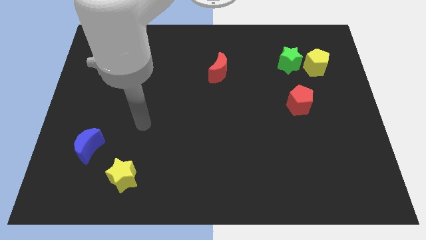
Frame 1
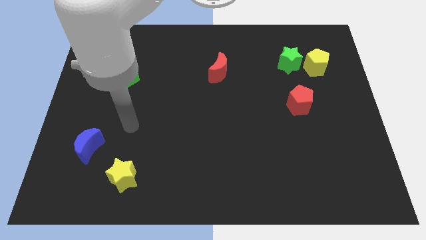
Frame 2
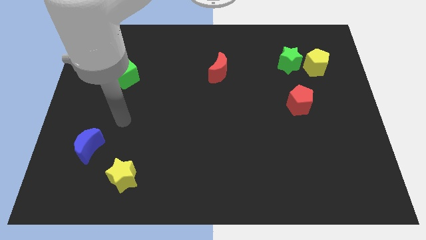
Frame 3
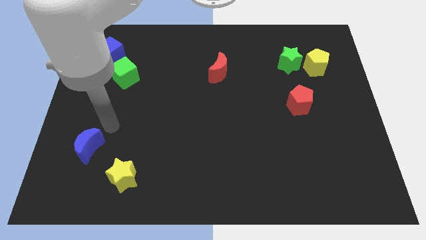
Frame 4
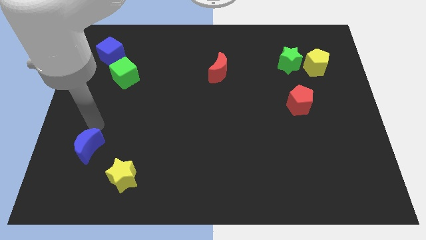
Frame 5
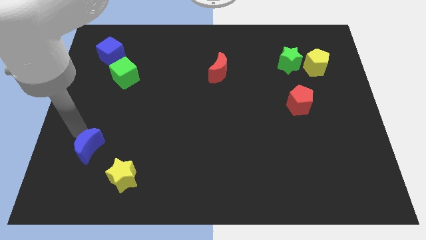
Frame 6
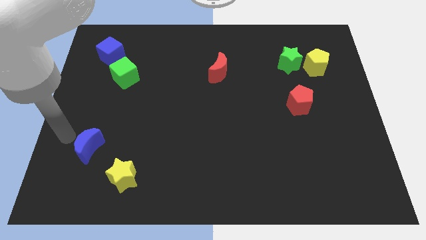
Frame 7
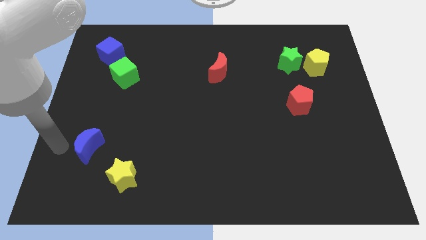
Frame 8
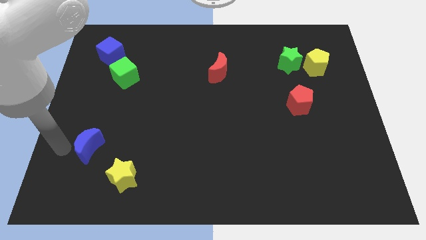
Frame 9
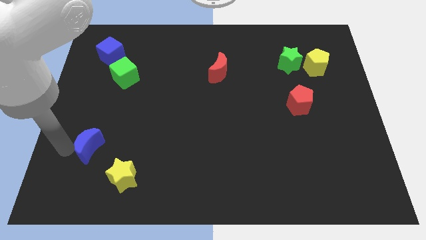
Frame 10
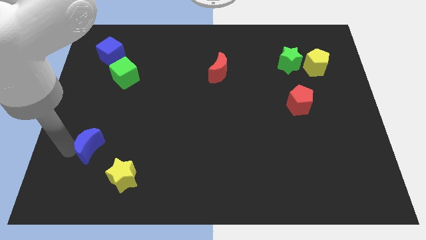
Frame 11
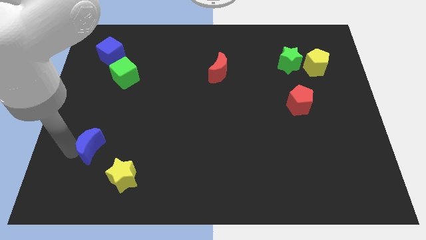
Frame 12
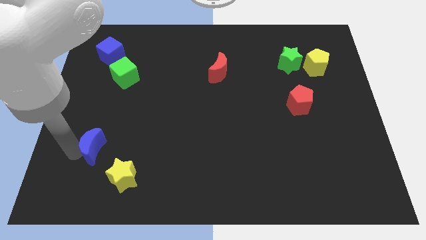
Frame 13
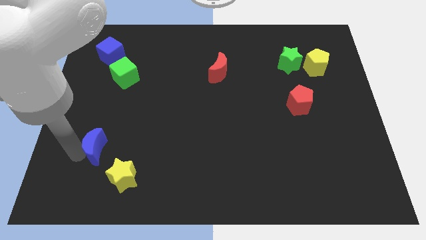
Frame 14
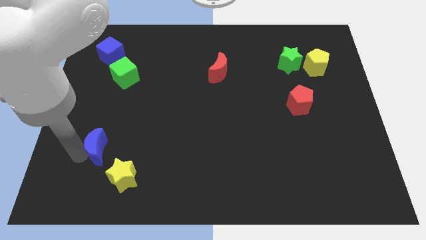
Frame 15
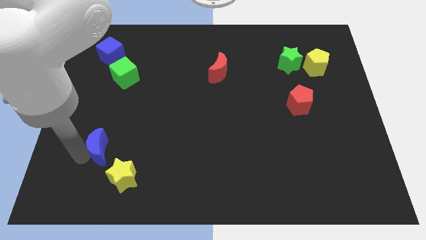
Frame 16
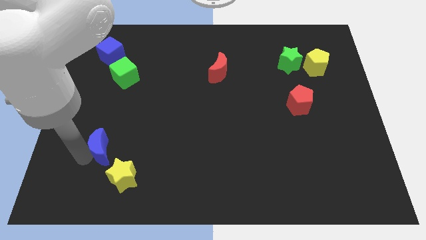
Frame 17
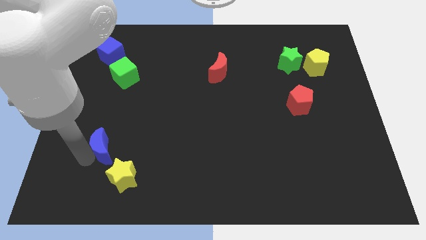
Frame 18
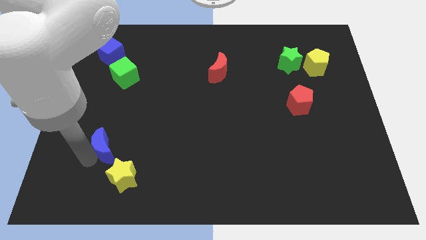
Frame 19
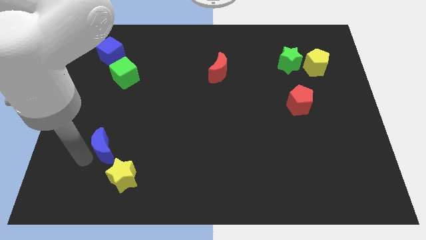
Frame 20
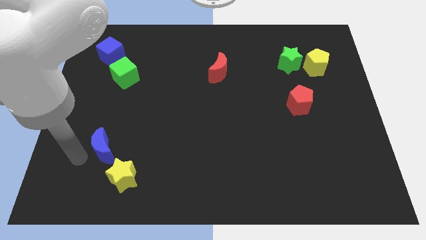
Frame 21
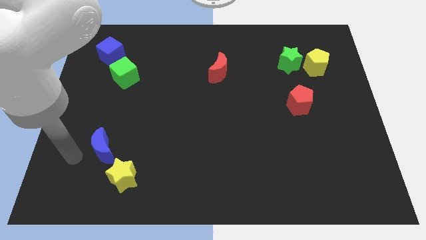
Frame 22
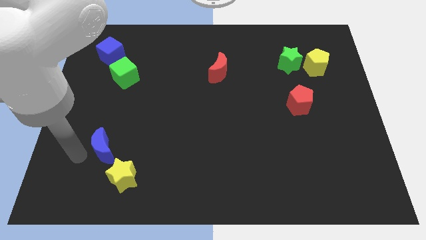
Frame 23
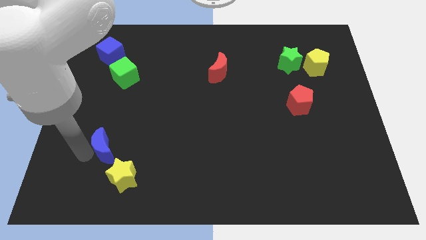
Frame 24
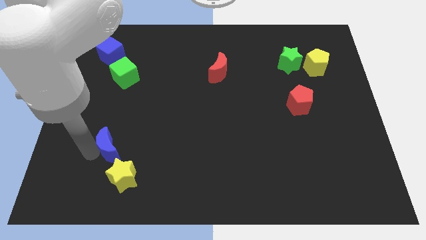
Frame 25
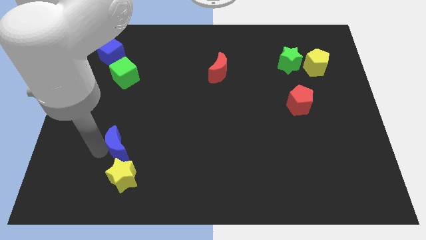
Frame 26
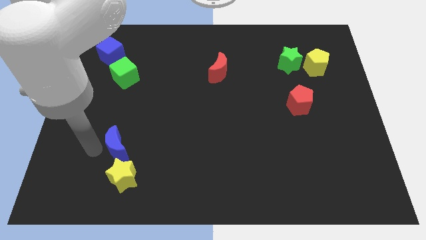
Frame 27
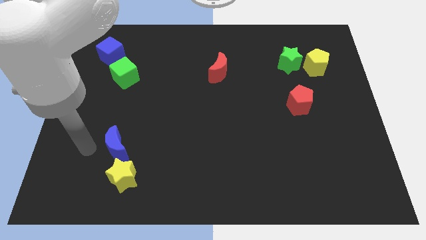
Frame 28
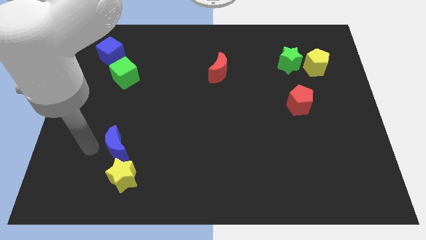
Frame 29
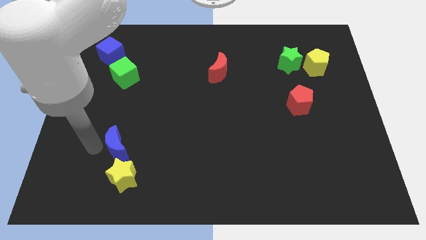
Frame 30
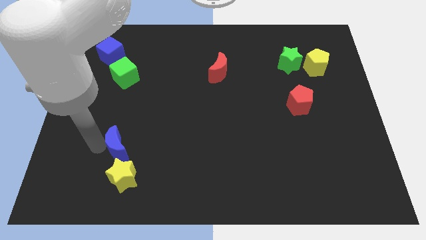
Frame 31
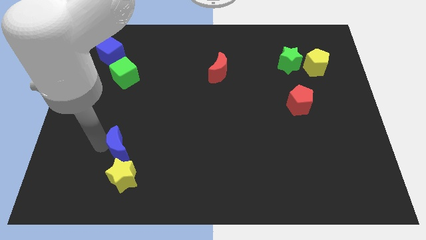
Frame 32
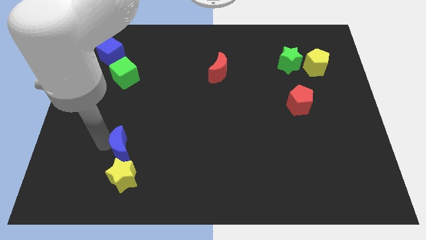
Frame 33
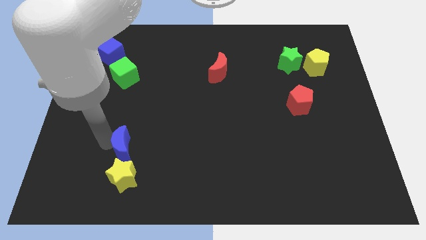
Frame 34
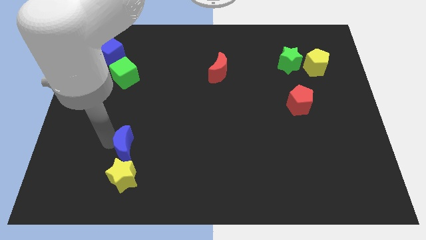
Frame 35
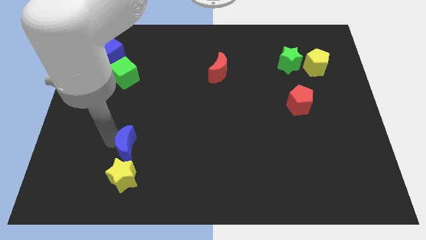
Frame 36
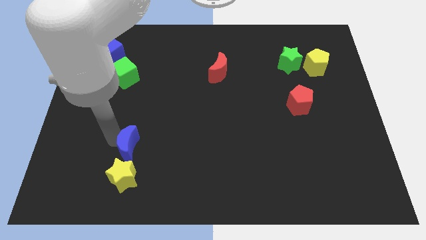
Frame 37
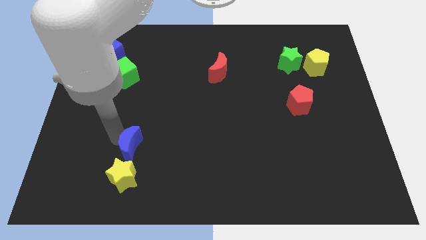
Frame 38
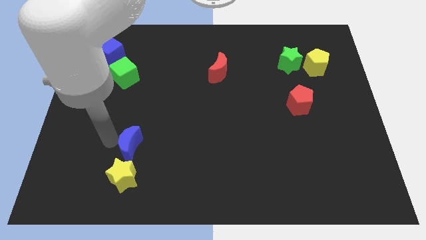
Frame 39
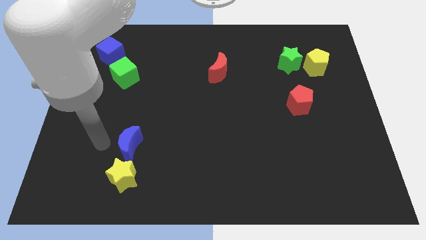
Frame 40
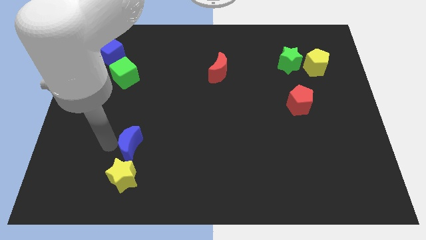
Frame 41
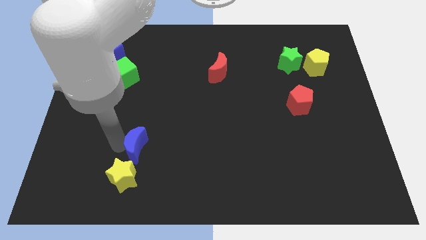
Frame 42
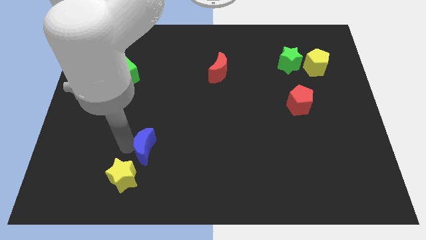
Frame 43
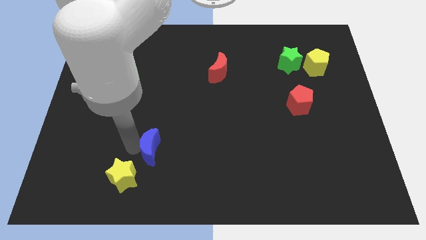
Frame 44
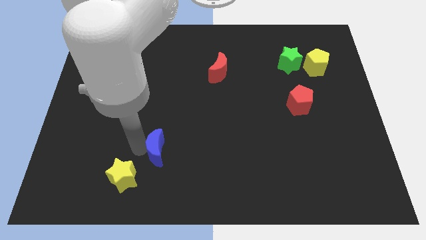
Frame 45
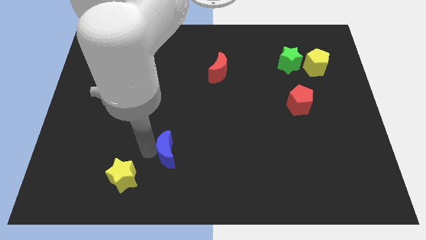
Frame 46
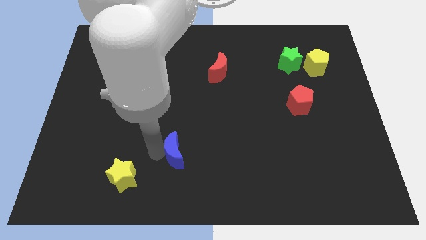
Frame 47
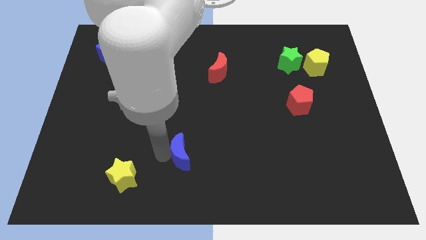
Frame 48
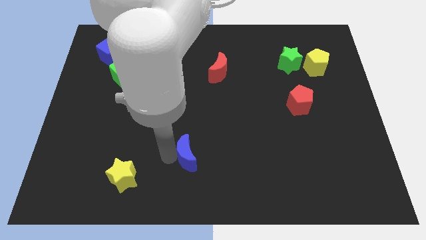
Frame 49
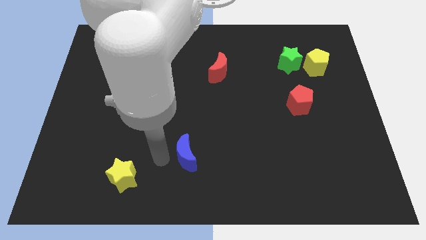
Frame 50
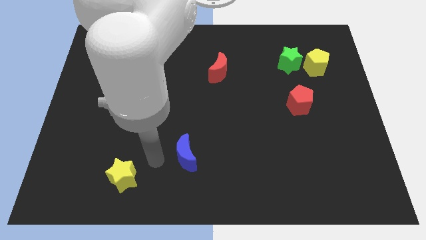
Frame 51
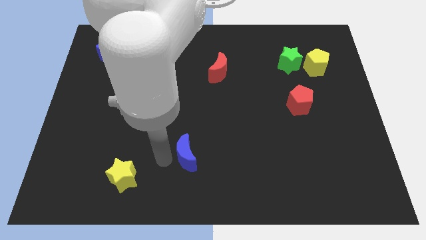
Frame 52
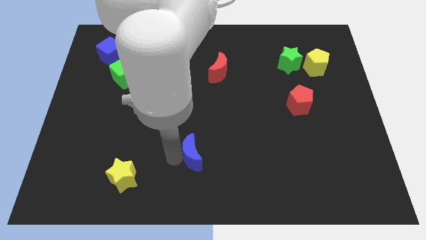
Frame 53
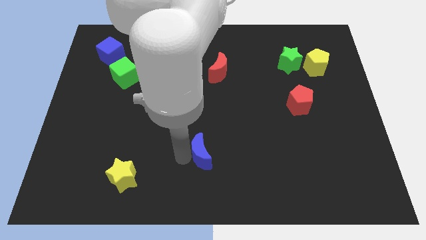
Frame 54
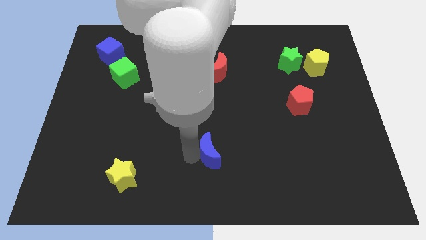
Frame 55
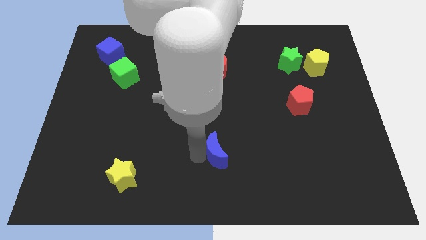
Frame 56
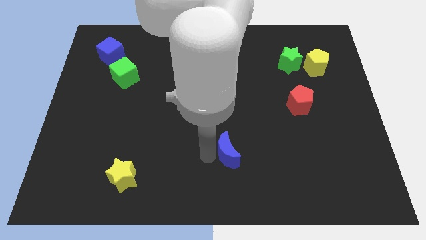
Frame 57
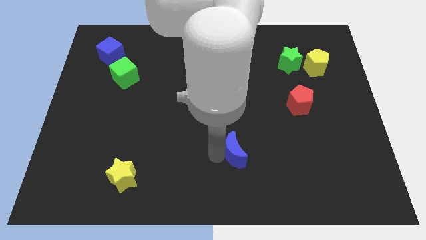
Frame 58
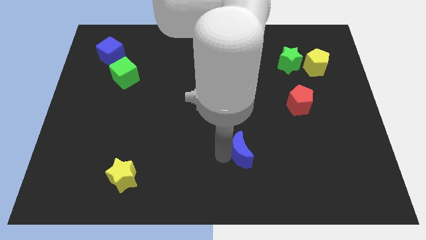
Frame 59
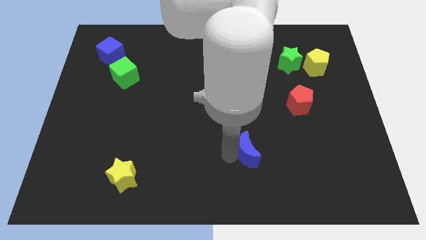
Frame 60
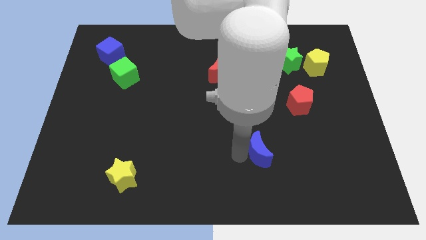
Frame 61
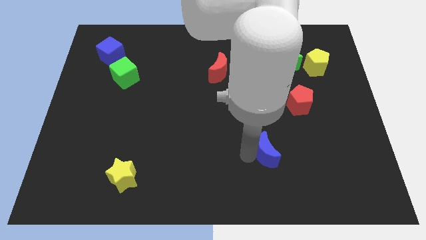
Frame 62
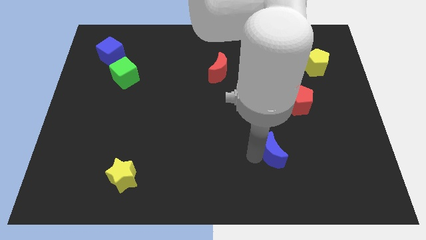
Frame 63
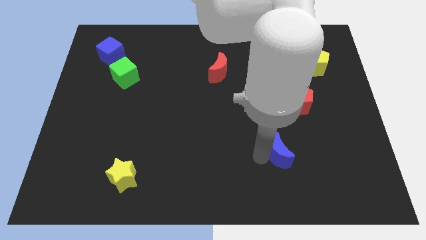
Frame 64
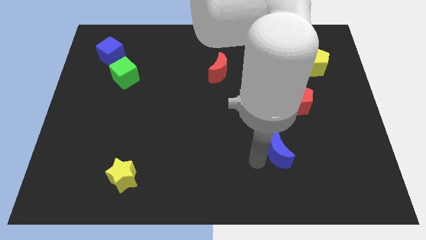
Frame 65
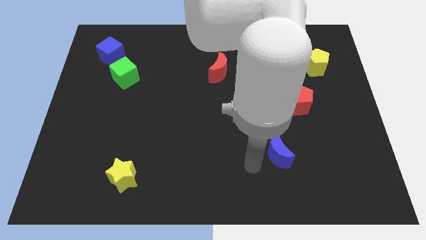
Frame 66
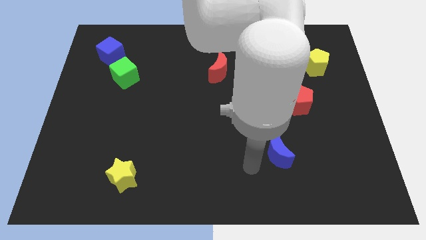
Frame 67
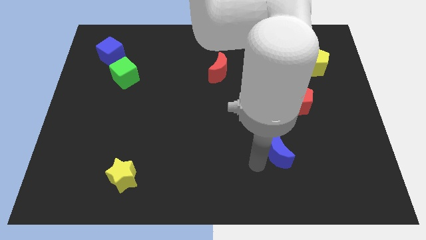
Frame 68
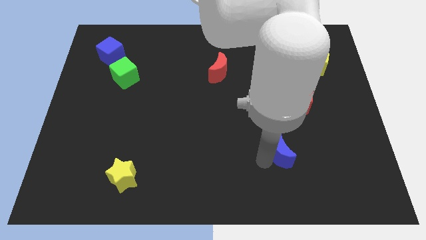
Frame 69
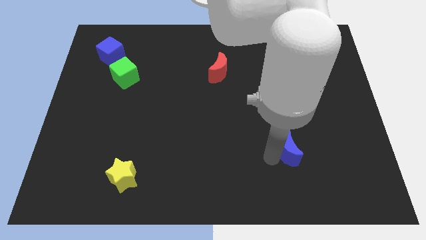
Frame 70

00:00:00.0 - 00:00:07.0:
put the blue moon below the red pentagon
